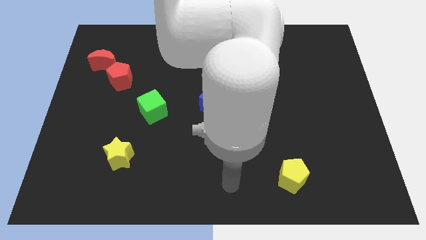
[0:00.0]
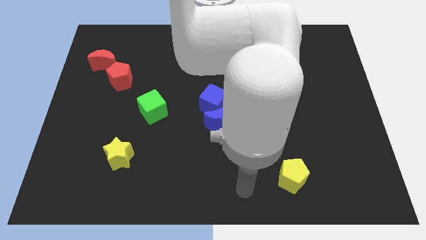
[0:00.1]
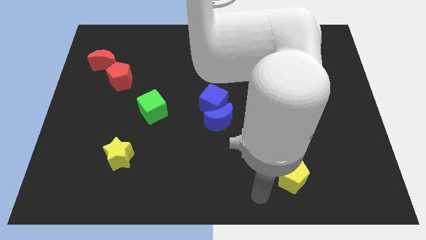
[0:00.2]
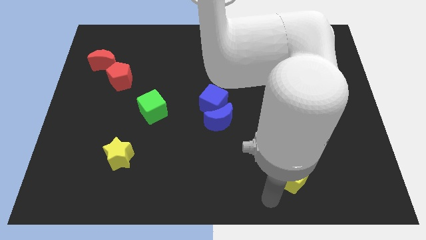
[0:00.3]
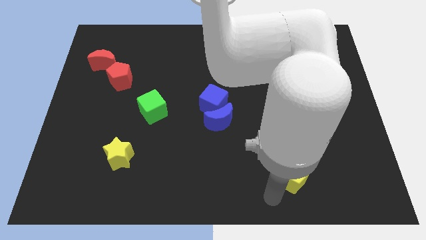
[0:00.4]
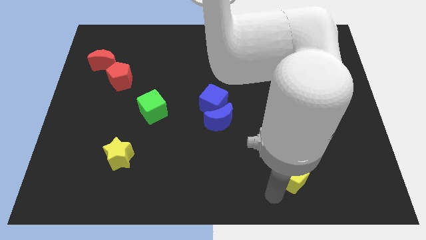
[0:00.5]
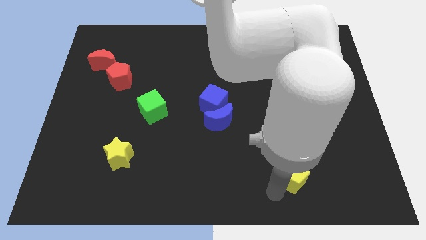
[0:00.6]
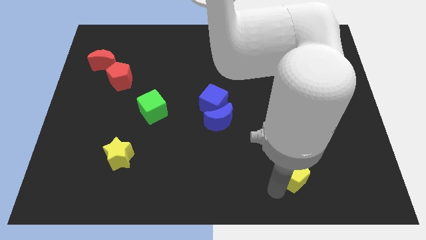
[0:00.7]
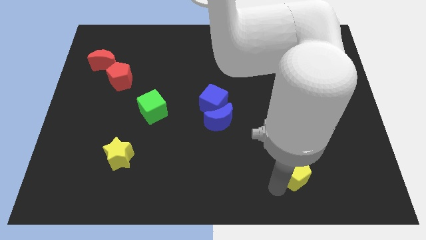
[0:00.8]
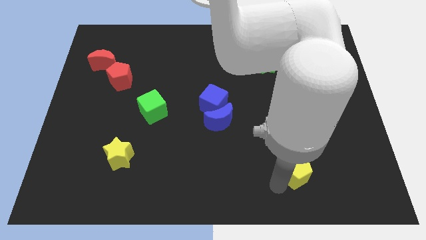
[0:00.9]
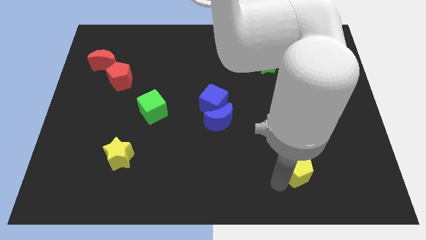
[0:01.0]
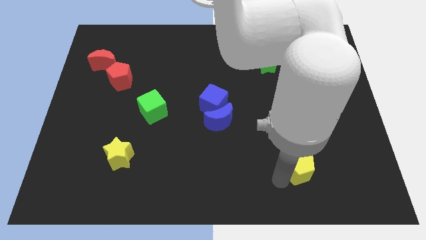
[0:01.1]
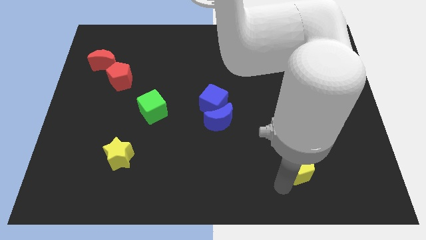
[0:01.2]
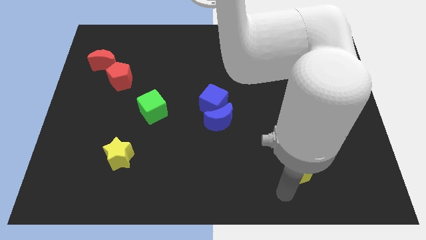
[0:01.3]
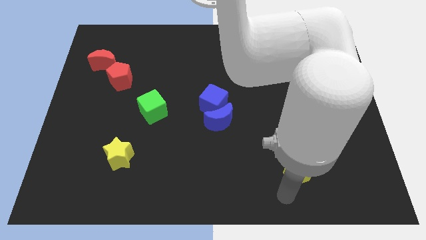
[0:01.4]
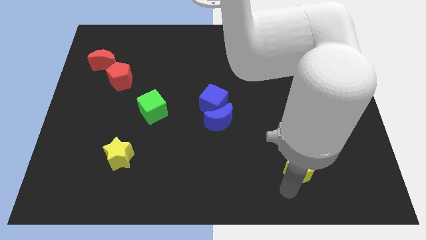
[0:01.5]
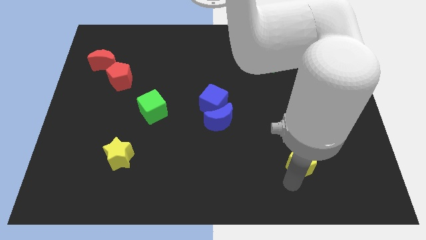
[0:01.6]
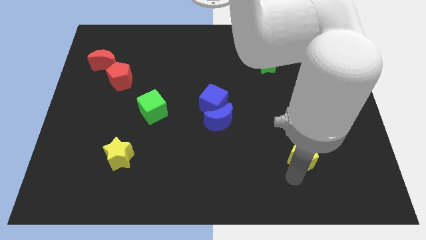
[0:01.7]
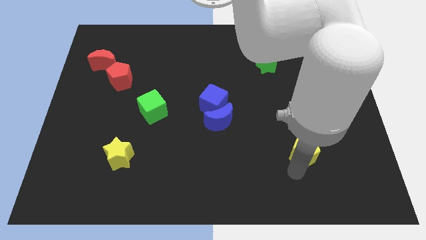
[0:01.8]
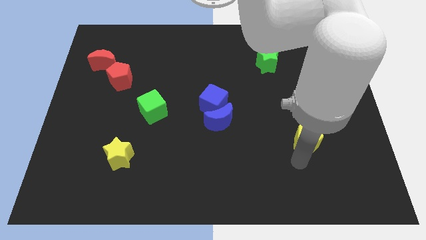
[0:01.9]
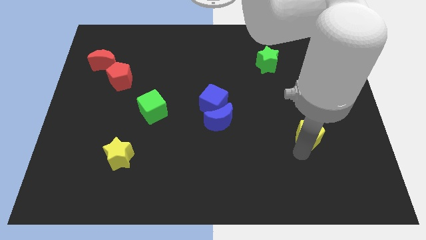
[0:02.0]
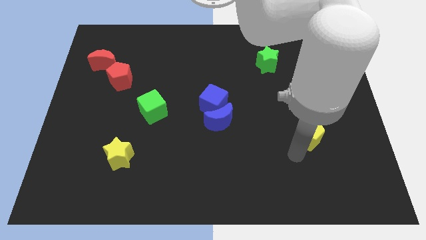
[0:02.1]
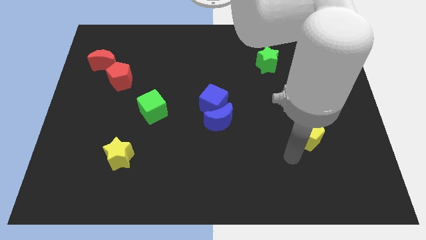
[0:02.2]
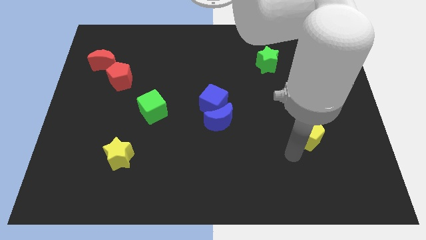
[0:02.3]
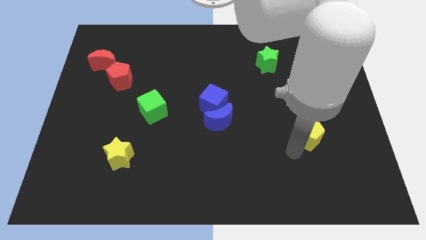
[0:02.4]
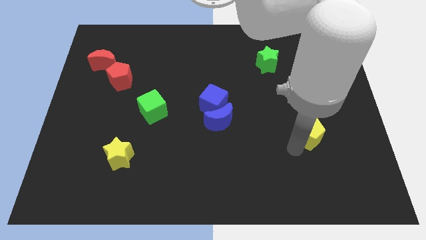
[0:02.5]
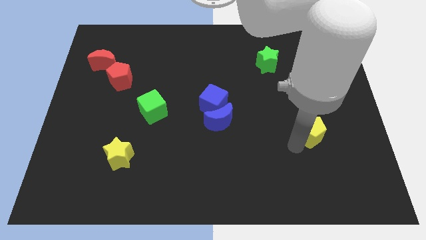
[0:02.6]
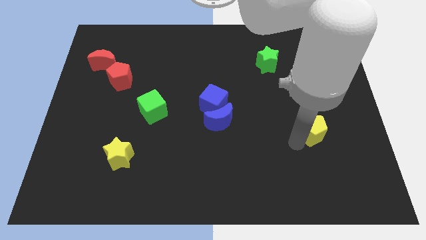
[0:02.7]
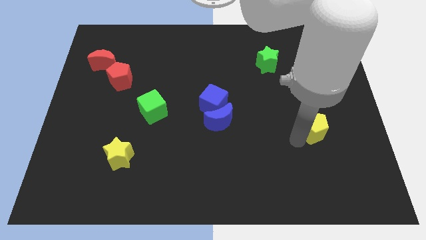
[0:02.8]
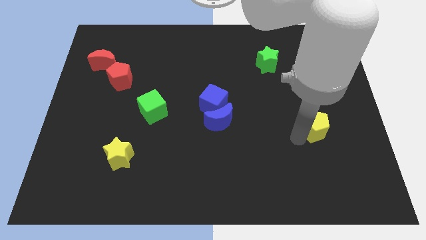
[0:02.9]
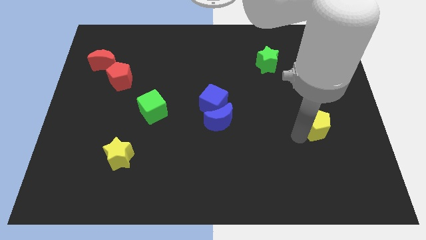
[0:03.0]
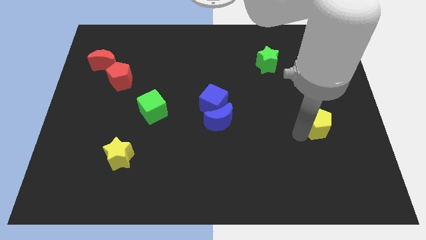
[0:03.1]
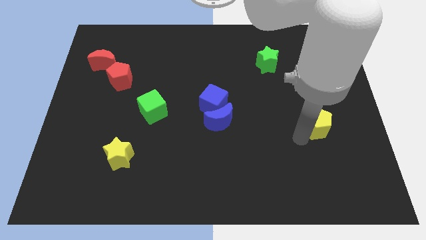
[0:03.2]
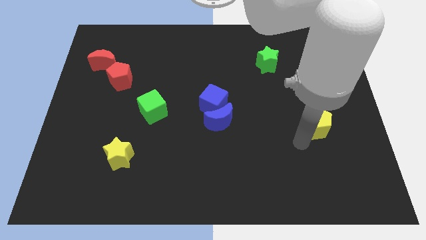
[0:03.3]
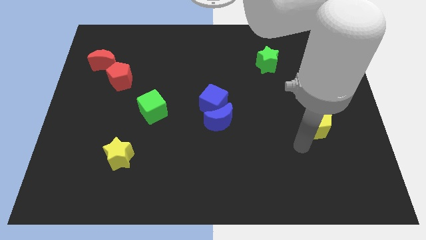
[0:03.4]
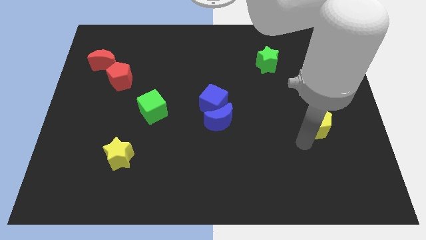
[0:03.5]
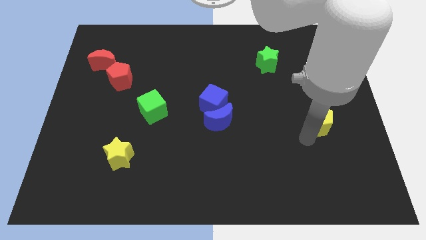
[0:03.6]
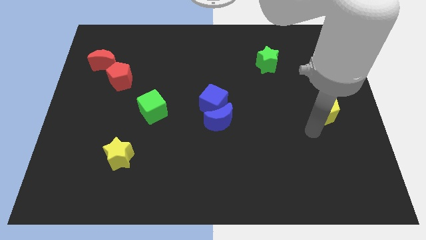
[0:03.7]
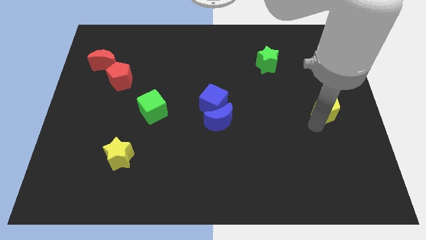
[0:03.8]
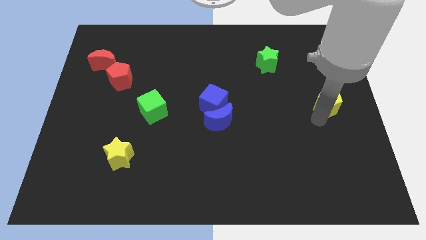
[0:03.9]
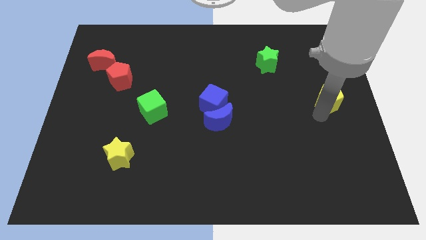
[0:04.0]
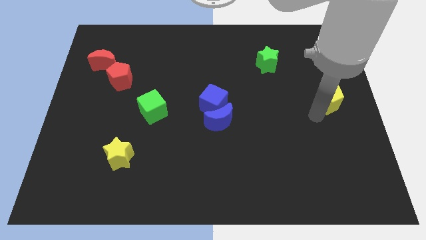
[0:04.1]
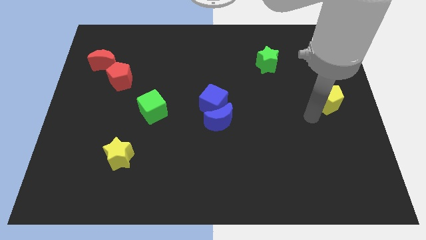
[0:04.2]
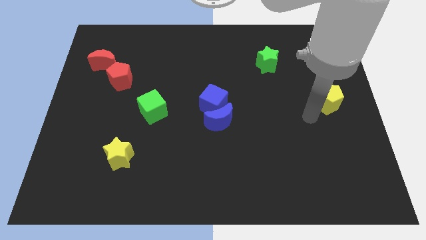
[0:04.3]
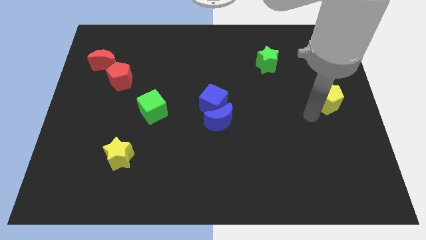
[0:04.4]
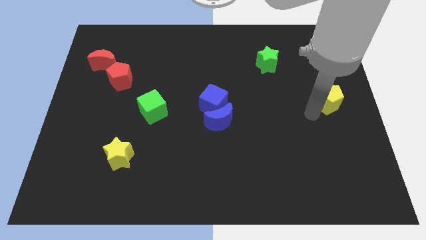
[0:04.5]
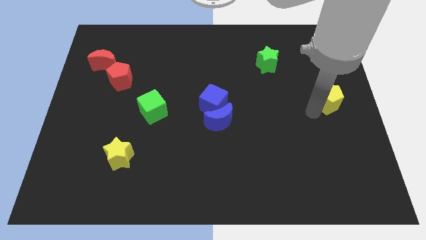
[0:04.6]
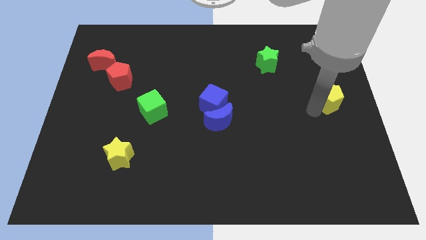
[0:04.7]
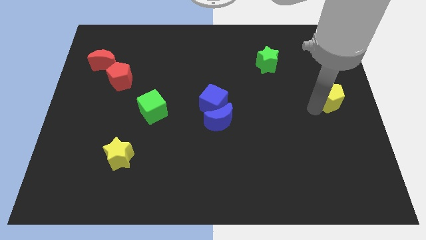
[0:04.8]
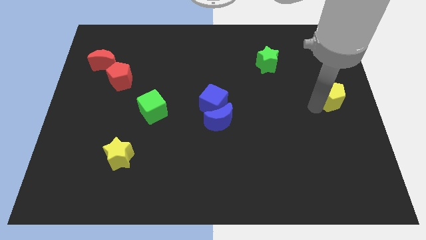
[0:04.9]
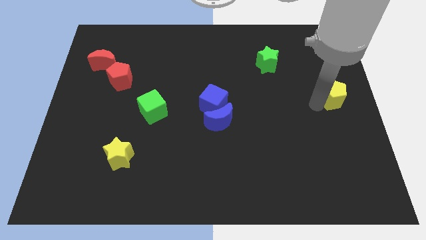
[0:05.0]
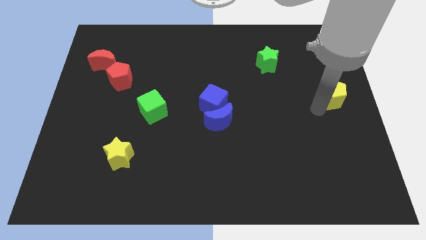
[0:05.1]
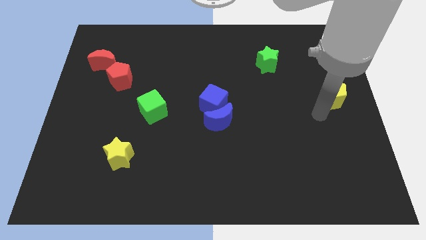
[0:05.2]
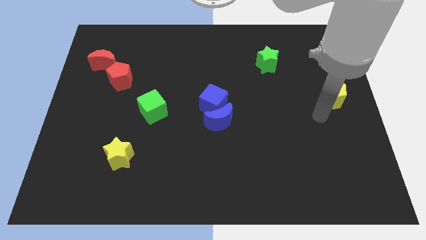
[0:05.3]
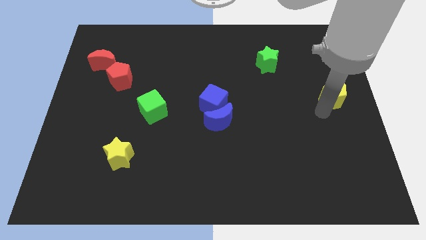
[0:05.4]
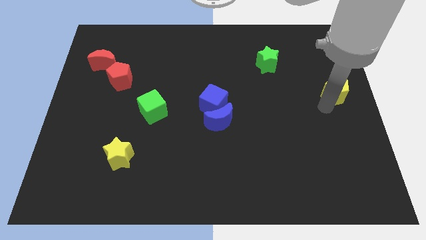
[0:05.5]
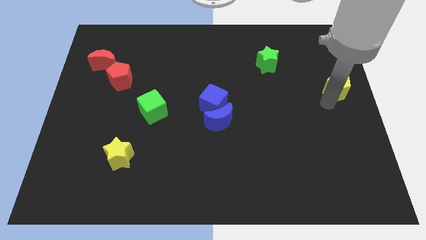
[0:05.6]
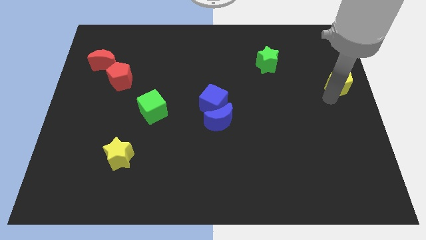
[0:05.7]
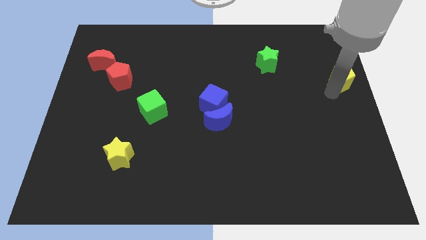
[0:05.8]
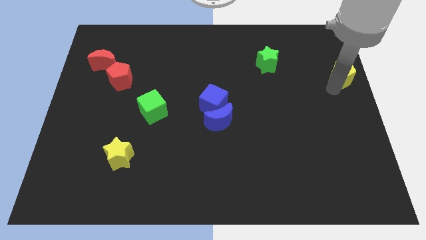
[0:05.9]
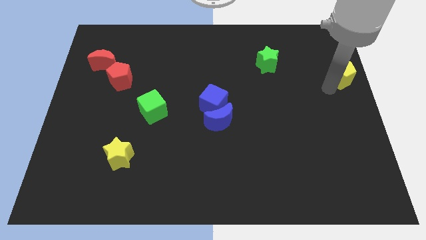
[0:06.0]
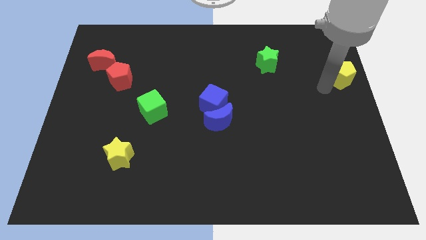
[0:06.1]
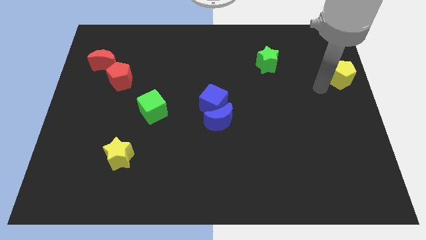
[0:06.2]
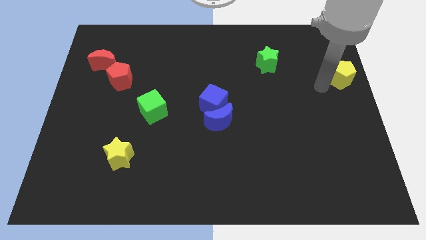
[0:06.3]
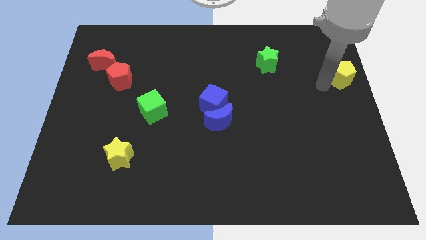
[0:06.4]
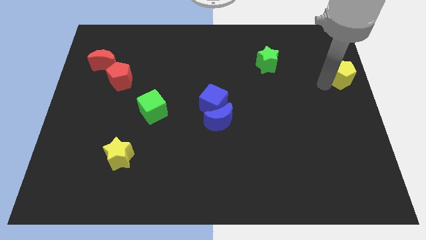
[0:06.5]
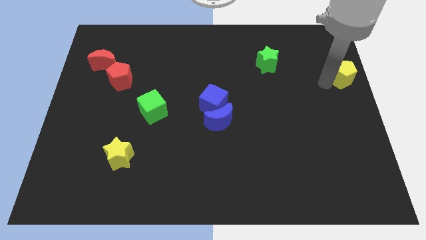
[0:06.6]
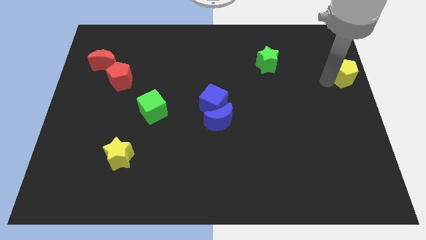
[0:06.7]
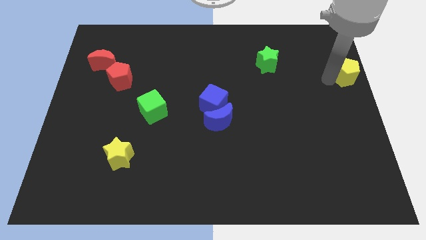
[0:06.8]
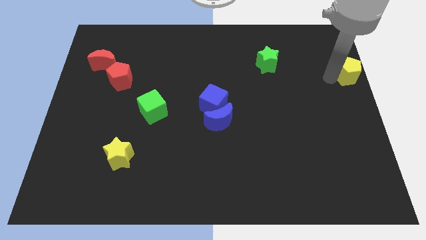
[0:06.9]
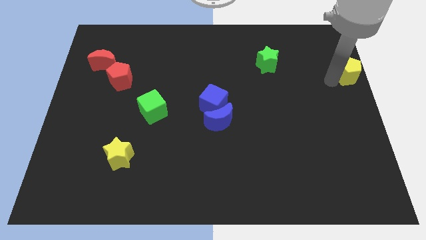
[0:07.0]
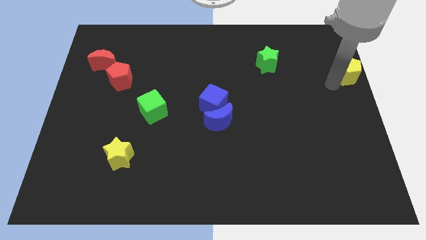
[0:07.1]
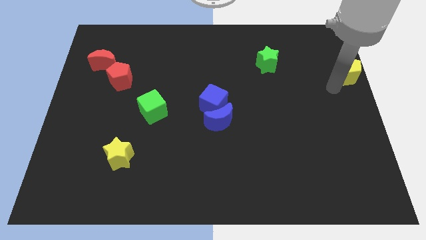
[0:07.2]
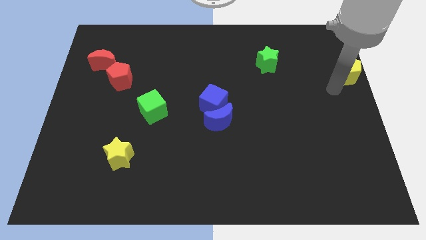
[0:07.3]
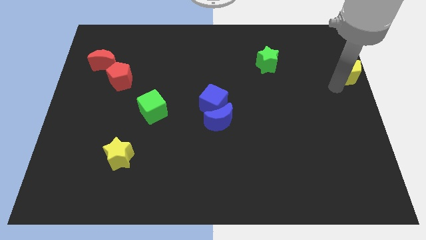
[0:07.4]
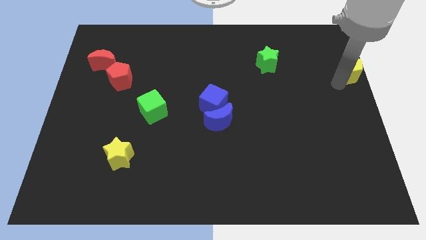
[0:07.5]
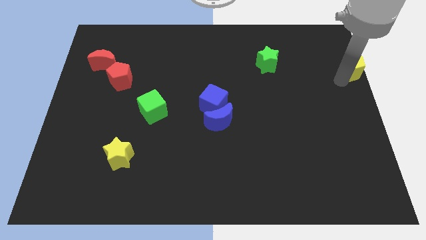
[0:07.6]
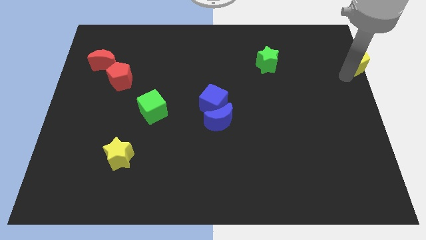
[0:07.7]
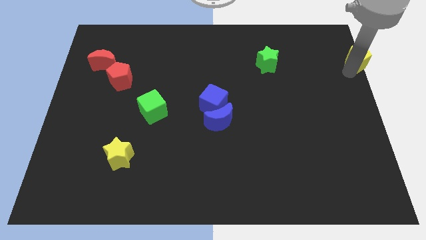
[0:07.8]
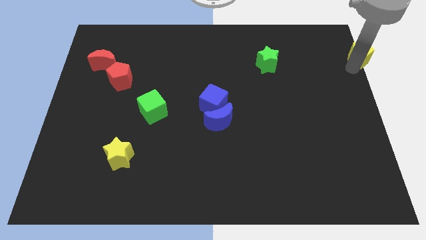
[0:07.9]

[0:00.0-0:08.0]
slide the yellow pentagon to the upper right corner
